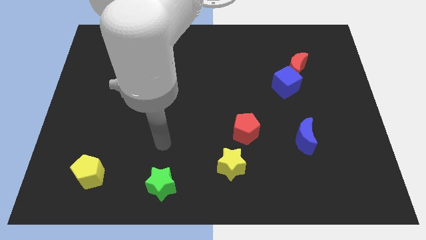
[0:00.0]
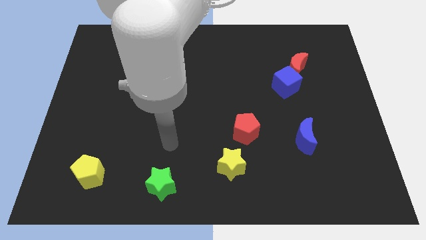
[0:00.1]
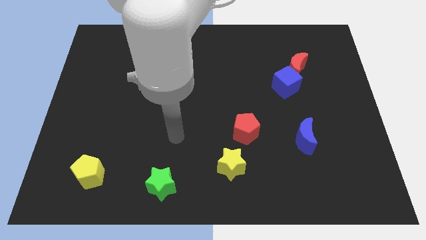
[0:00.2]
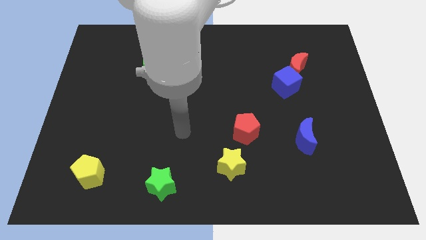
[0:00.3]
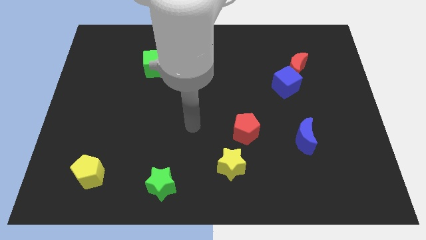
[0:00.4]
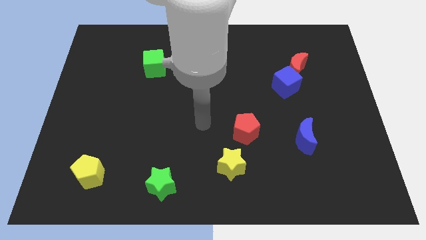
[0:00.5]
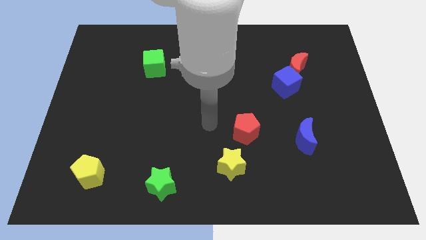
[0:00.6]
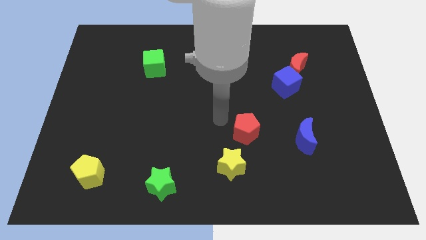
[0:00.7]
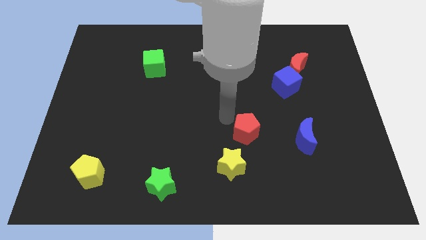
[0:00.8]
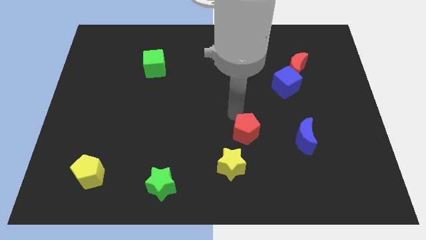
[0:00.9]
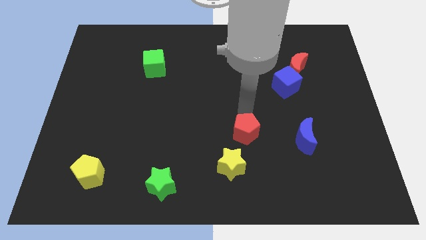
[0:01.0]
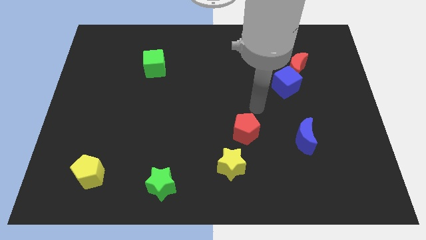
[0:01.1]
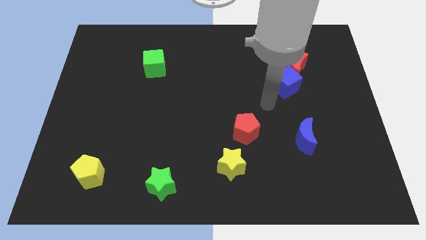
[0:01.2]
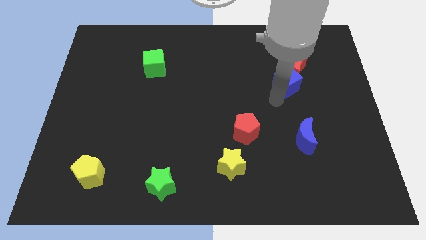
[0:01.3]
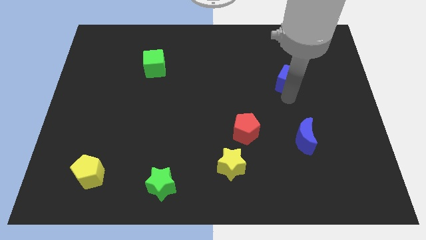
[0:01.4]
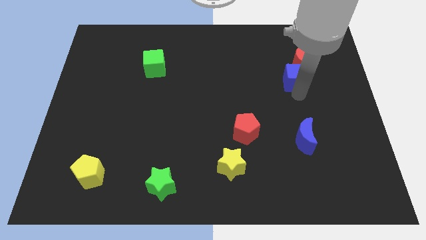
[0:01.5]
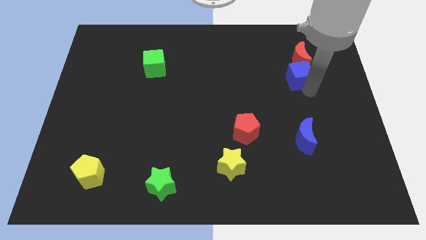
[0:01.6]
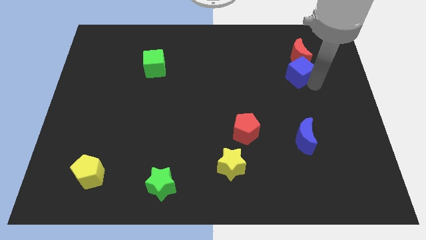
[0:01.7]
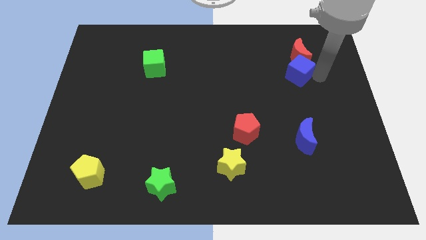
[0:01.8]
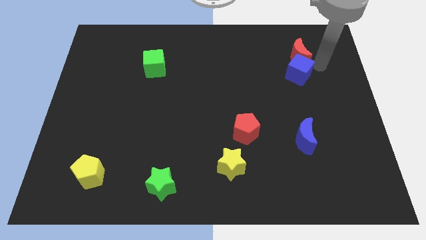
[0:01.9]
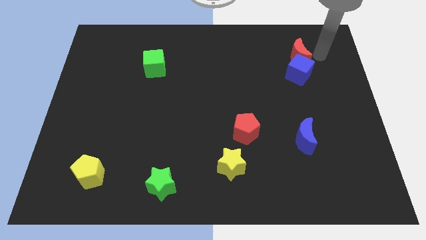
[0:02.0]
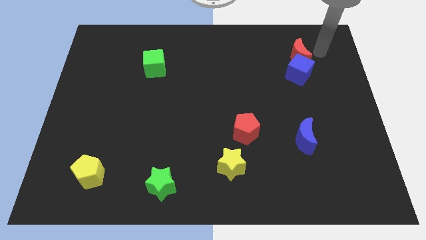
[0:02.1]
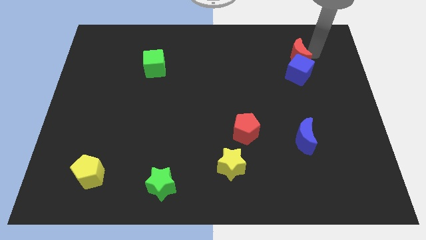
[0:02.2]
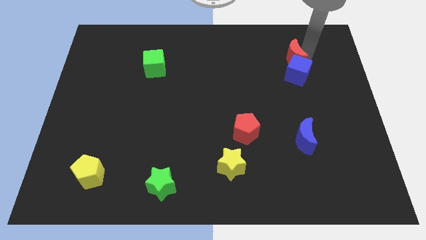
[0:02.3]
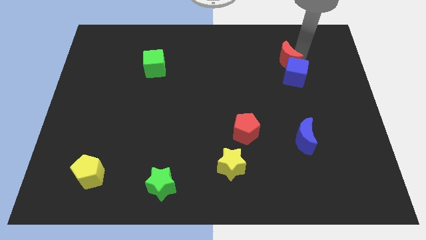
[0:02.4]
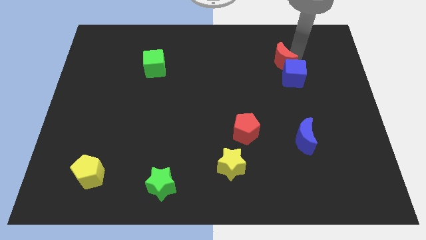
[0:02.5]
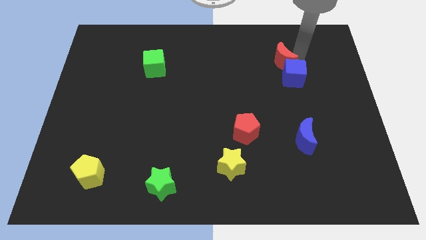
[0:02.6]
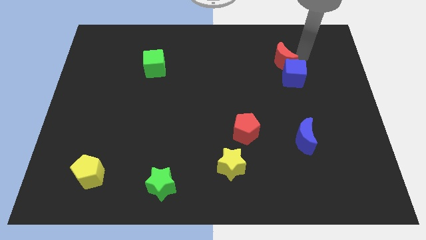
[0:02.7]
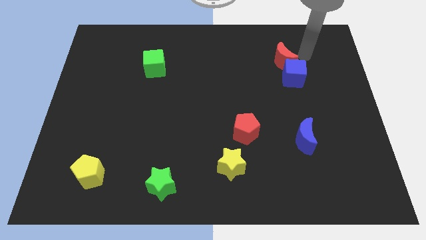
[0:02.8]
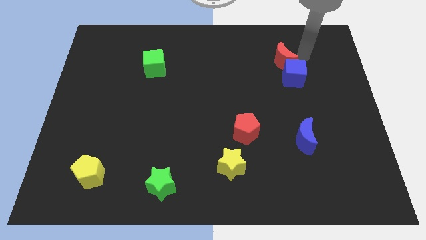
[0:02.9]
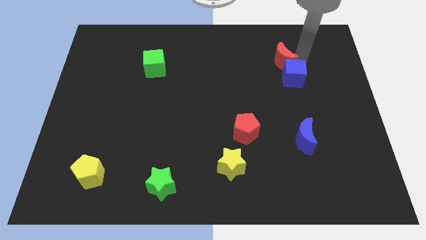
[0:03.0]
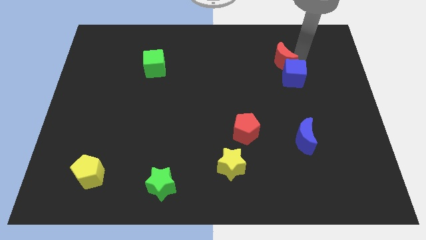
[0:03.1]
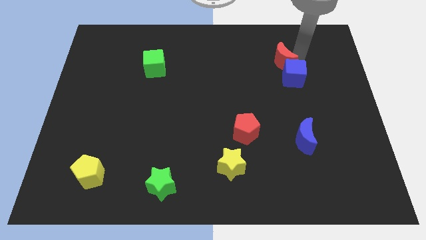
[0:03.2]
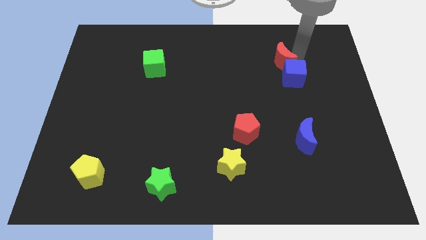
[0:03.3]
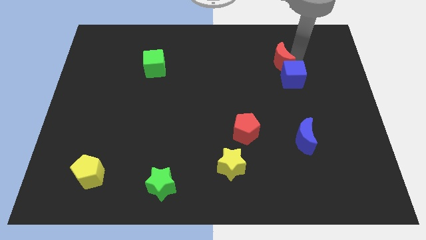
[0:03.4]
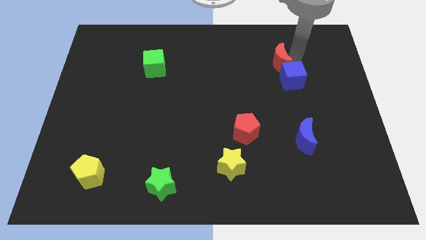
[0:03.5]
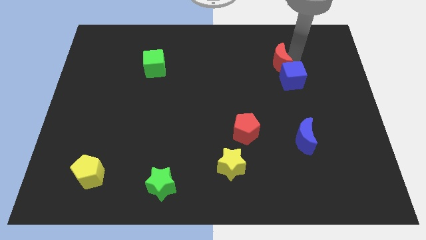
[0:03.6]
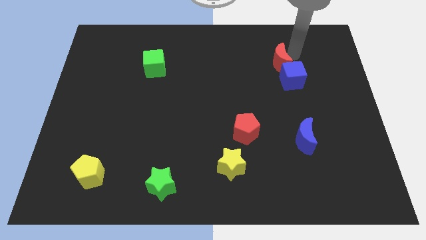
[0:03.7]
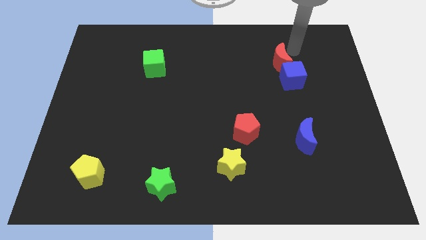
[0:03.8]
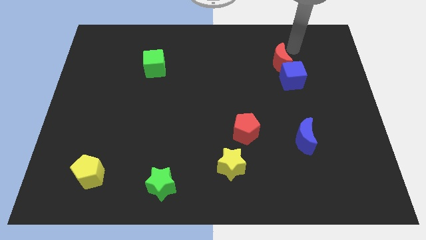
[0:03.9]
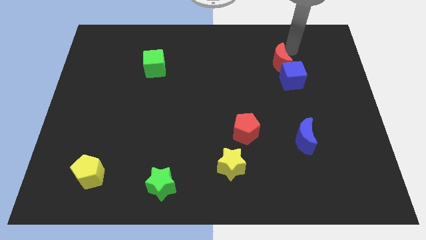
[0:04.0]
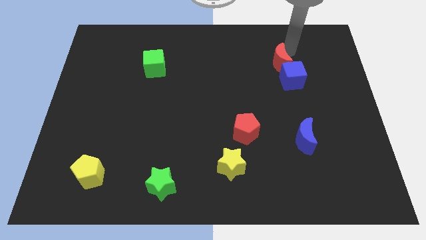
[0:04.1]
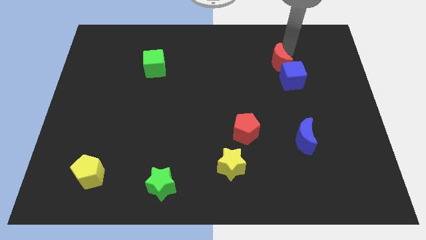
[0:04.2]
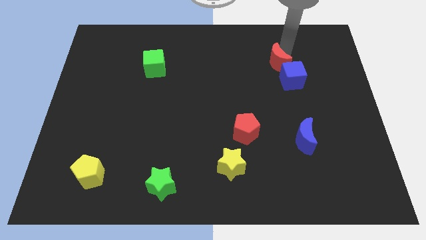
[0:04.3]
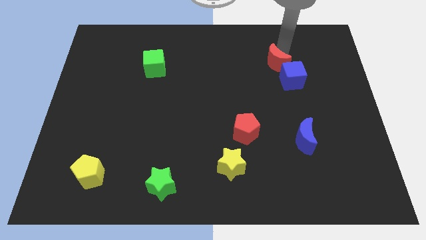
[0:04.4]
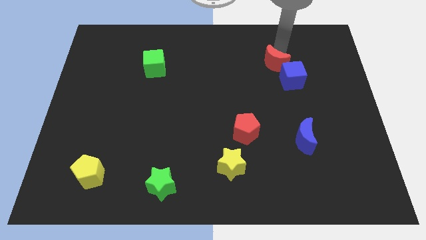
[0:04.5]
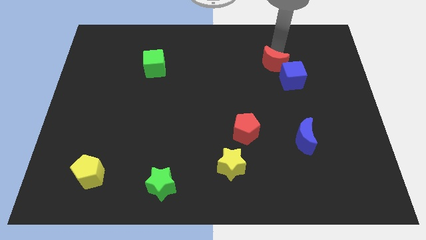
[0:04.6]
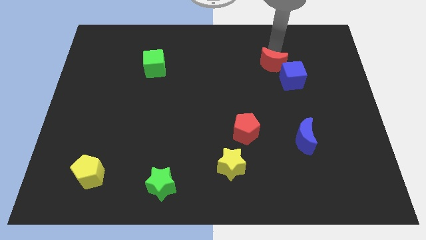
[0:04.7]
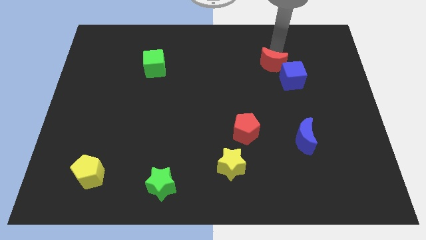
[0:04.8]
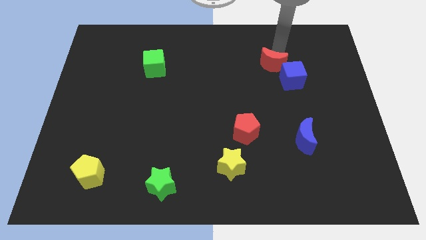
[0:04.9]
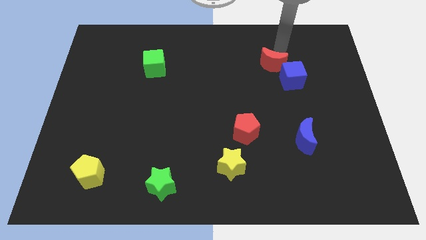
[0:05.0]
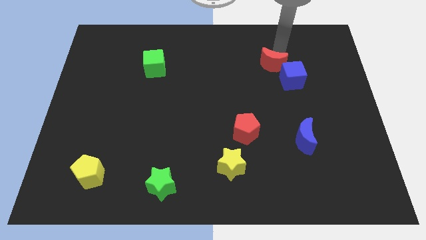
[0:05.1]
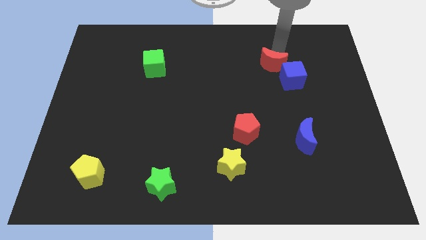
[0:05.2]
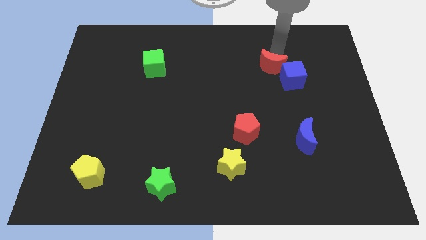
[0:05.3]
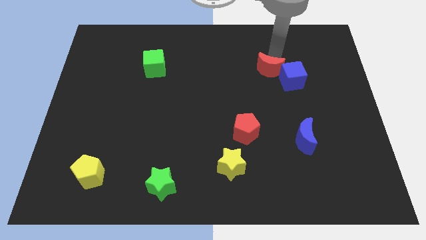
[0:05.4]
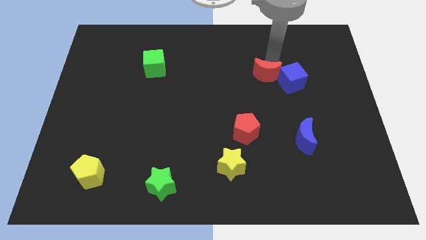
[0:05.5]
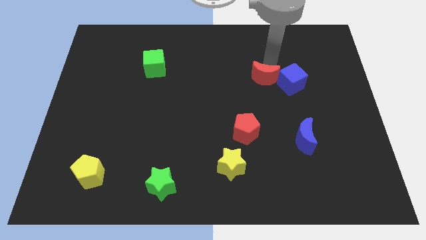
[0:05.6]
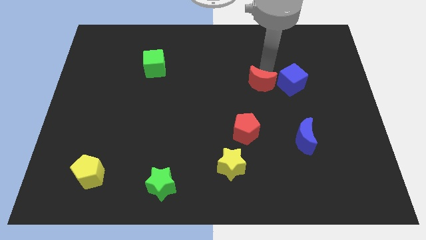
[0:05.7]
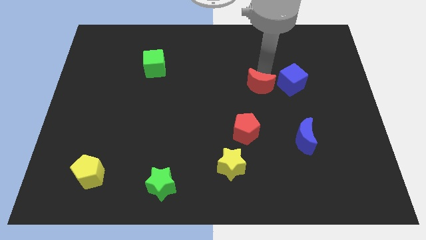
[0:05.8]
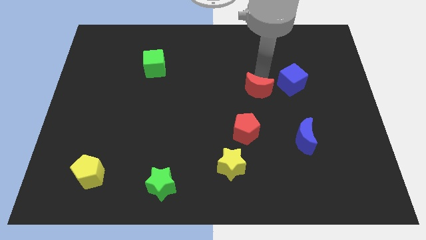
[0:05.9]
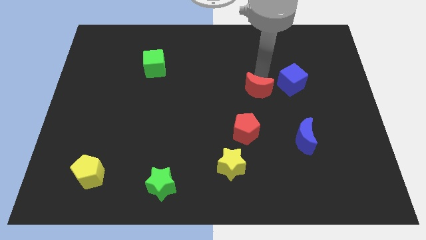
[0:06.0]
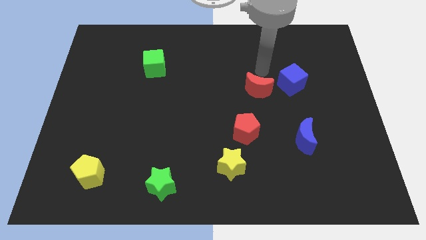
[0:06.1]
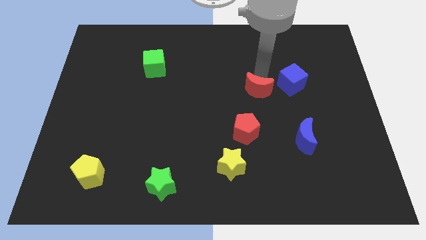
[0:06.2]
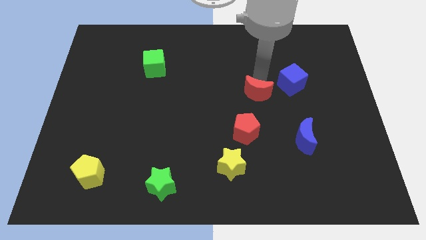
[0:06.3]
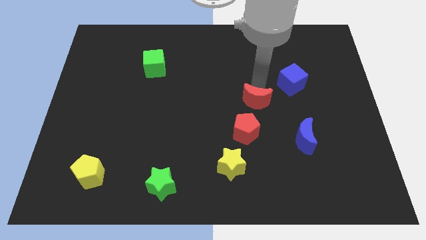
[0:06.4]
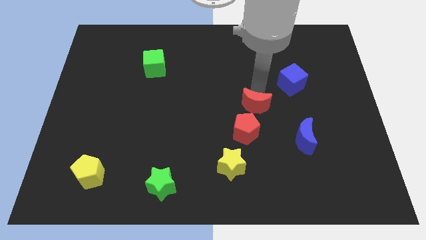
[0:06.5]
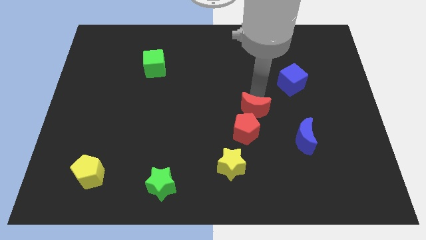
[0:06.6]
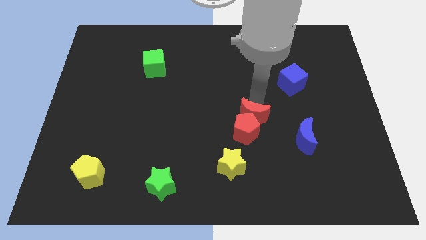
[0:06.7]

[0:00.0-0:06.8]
slide the red moon to the red pentagon

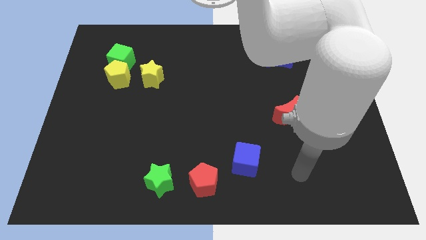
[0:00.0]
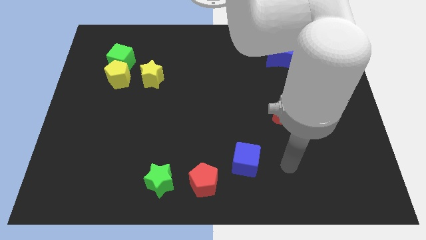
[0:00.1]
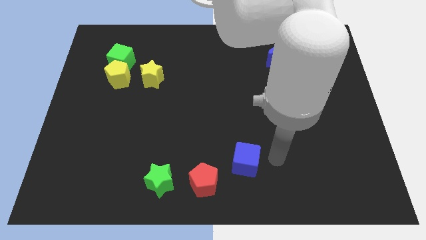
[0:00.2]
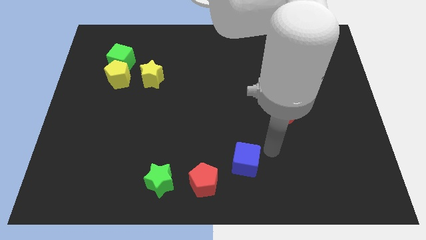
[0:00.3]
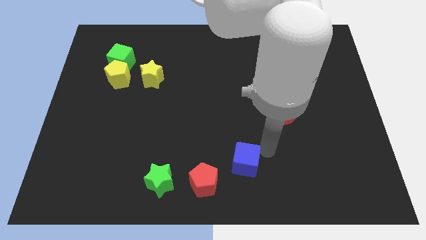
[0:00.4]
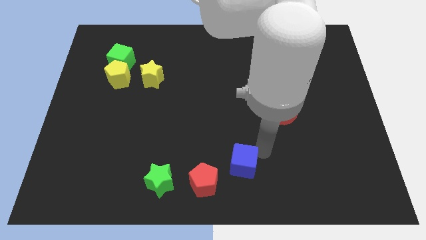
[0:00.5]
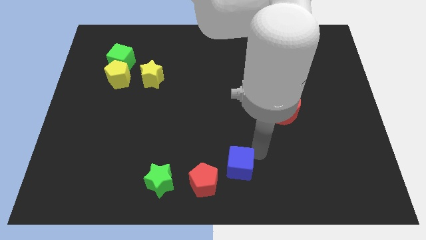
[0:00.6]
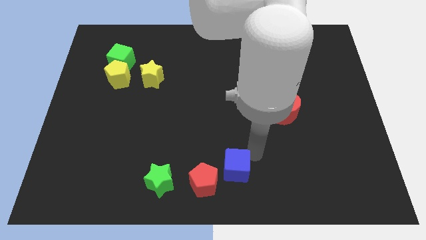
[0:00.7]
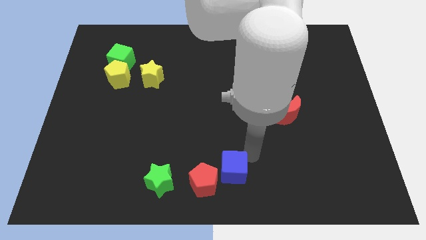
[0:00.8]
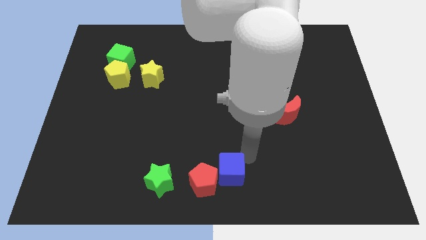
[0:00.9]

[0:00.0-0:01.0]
push the blue cube to the red pentagon
